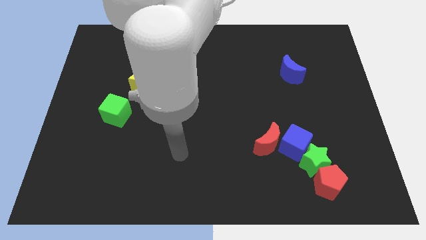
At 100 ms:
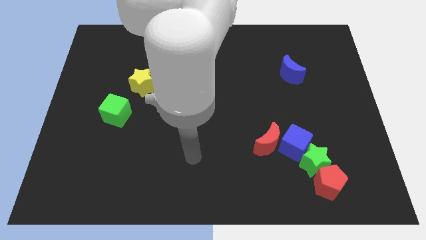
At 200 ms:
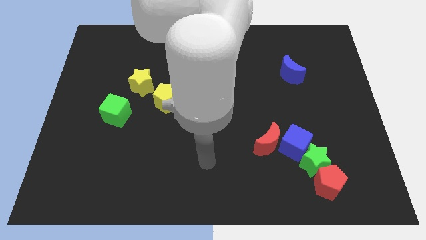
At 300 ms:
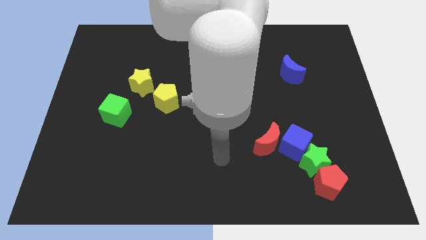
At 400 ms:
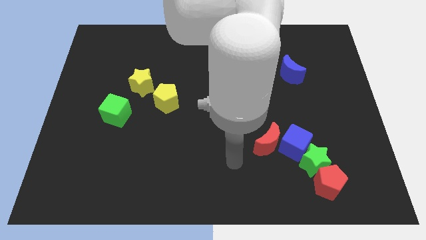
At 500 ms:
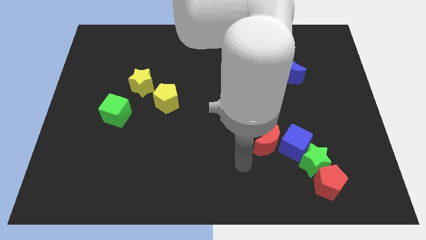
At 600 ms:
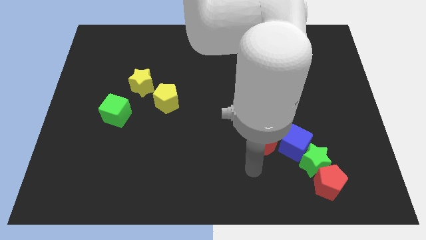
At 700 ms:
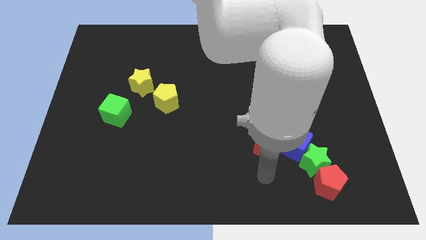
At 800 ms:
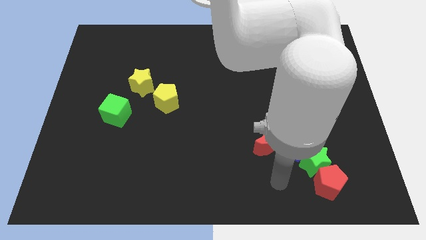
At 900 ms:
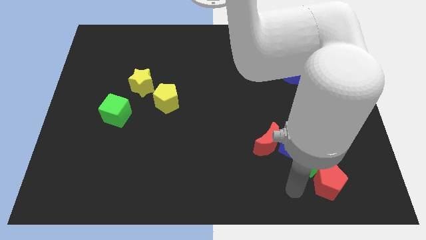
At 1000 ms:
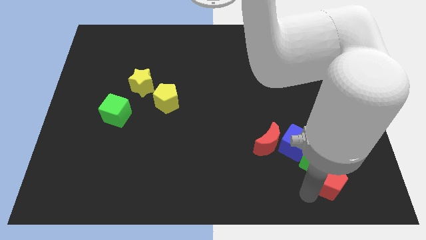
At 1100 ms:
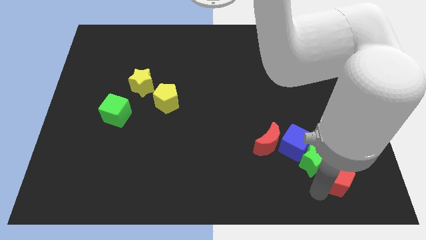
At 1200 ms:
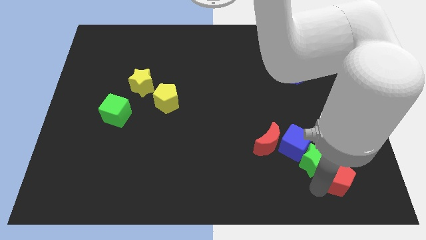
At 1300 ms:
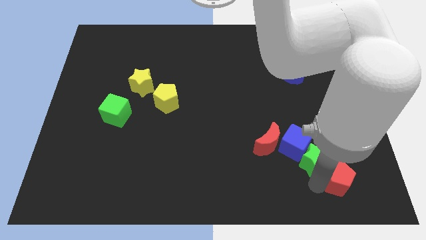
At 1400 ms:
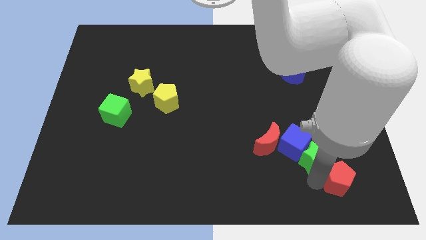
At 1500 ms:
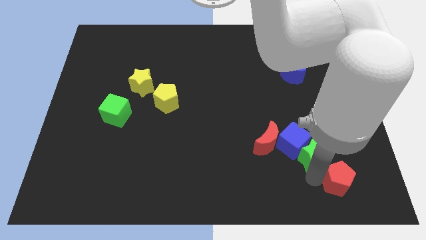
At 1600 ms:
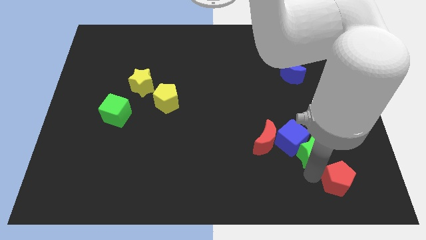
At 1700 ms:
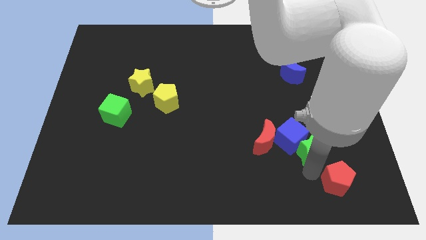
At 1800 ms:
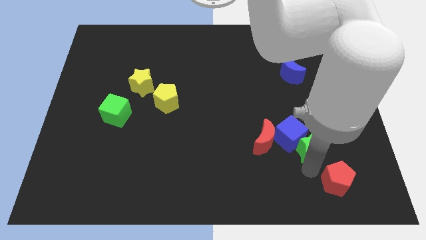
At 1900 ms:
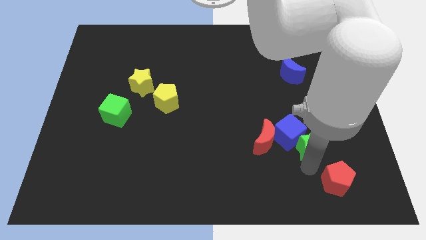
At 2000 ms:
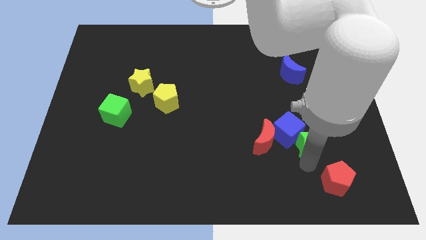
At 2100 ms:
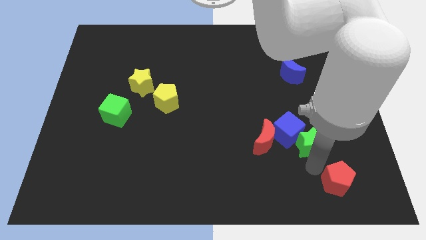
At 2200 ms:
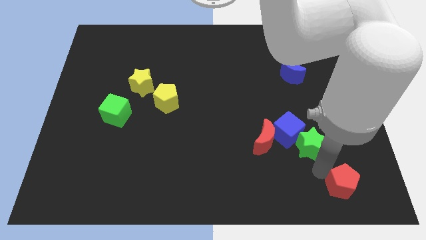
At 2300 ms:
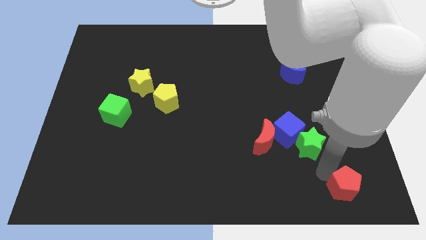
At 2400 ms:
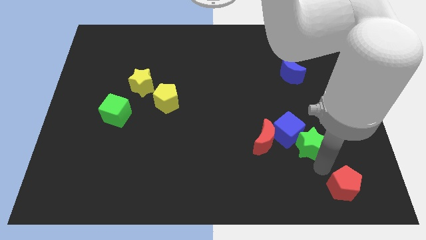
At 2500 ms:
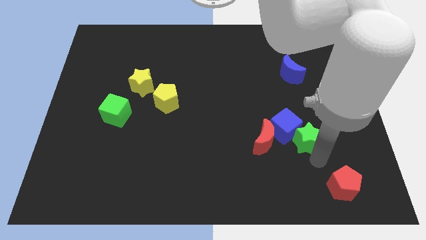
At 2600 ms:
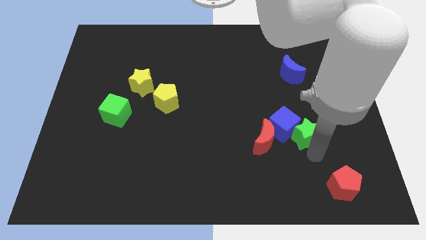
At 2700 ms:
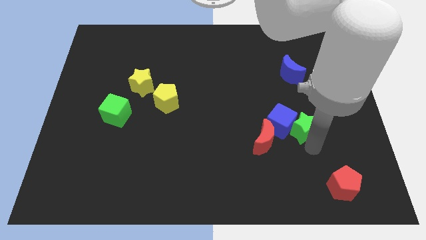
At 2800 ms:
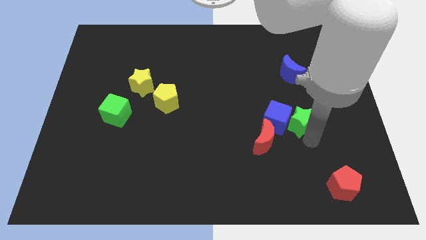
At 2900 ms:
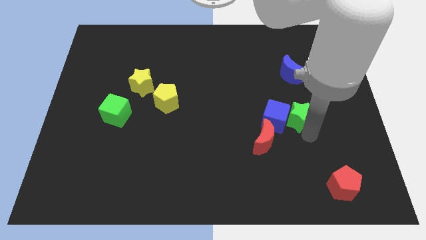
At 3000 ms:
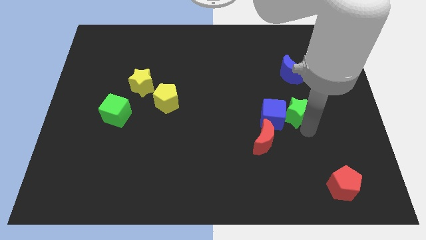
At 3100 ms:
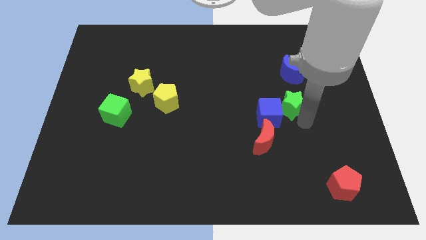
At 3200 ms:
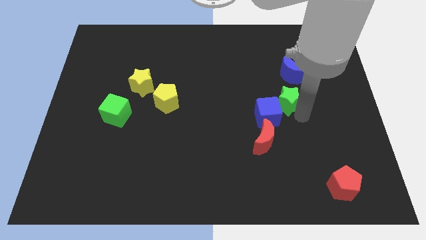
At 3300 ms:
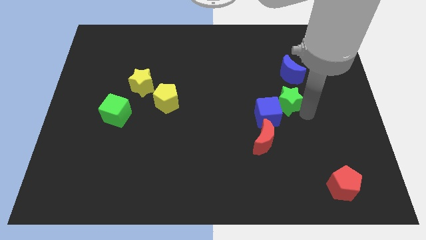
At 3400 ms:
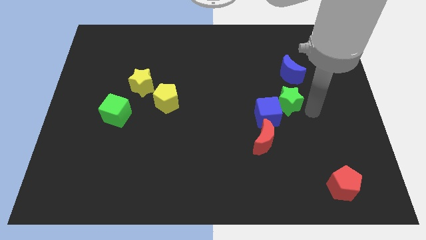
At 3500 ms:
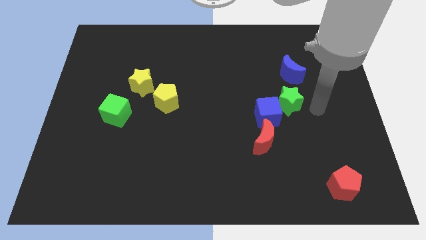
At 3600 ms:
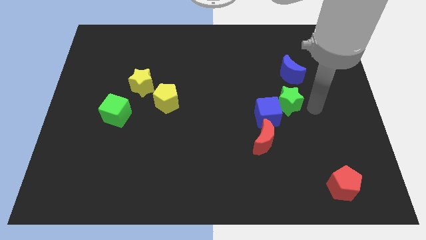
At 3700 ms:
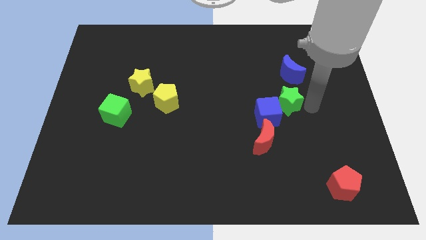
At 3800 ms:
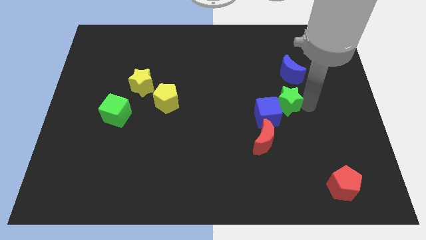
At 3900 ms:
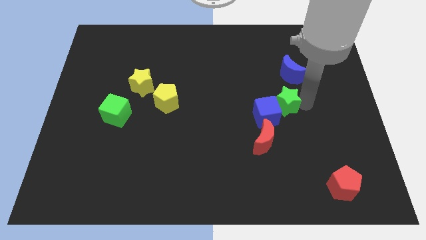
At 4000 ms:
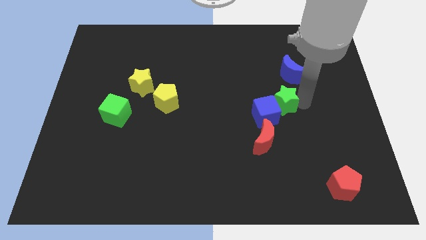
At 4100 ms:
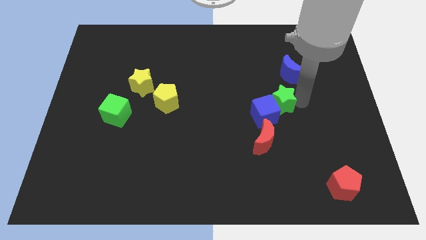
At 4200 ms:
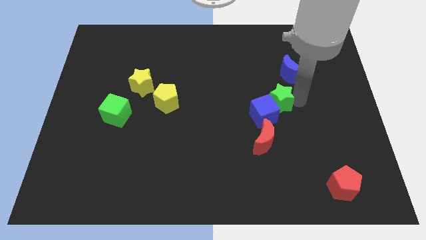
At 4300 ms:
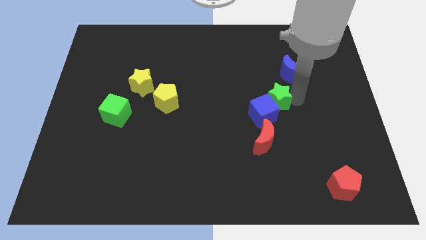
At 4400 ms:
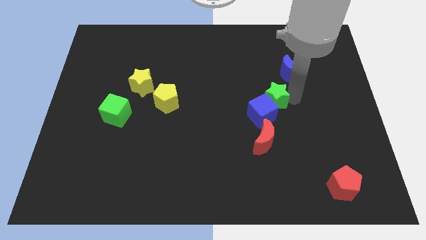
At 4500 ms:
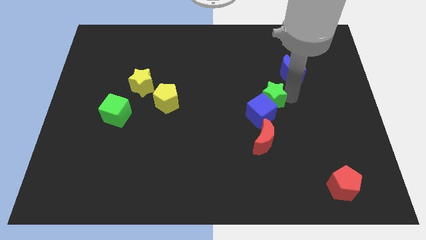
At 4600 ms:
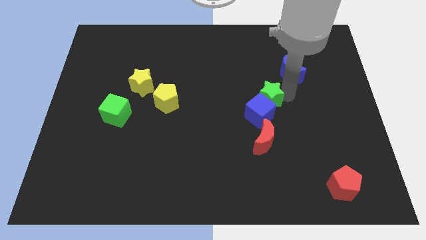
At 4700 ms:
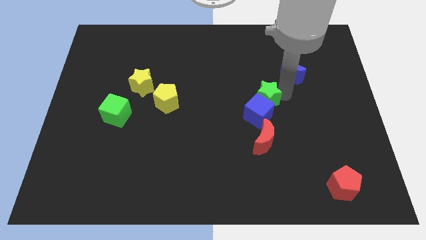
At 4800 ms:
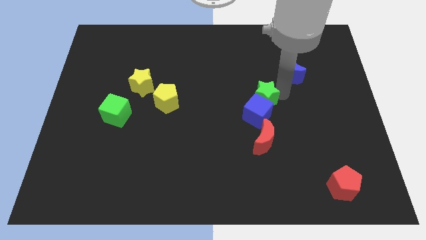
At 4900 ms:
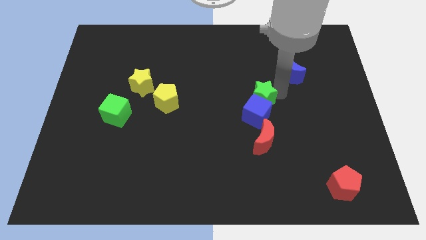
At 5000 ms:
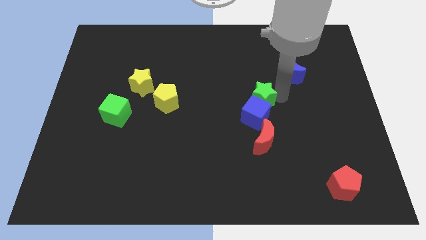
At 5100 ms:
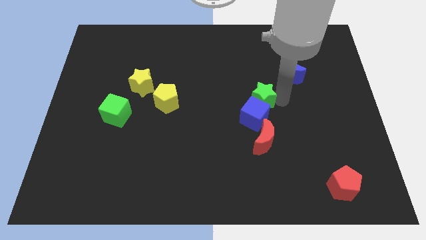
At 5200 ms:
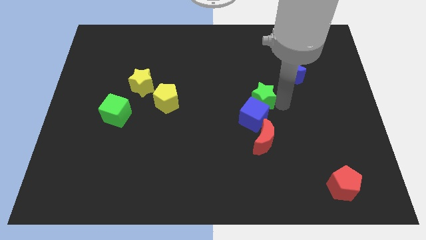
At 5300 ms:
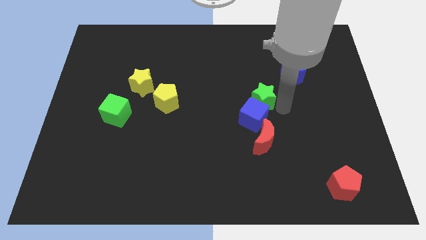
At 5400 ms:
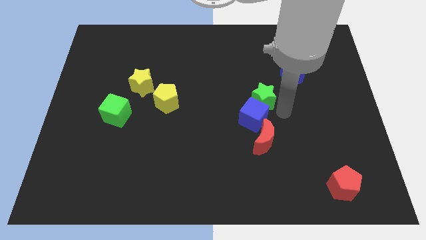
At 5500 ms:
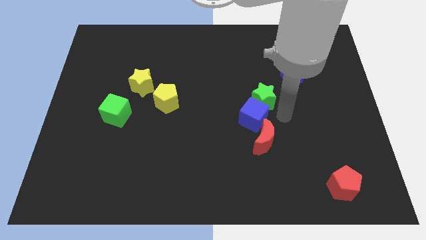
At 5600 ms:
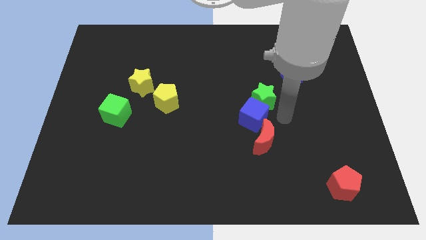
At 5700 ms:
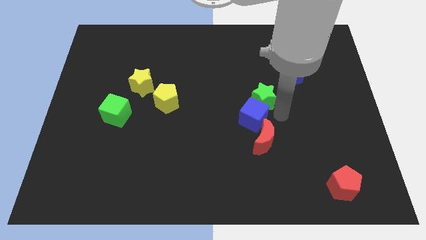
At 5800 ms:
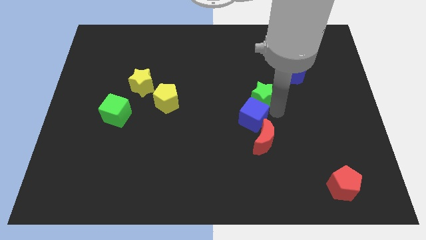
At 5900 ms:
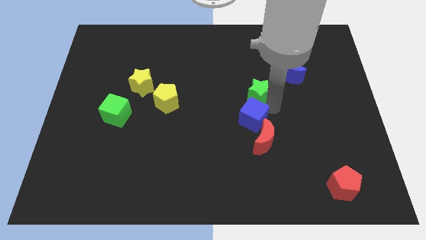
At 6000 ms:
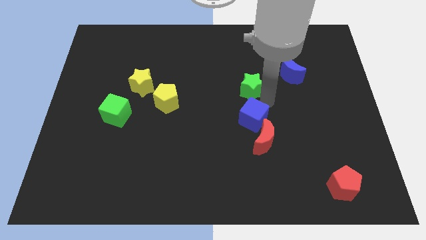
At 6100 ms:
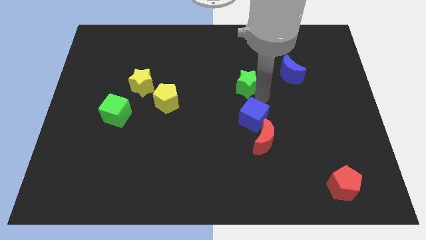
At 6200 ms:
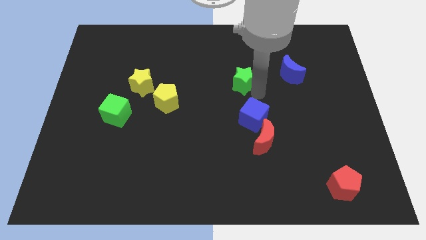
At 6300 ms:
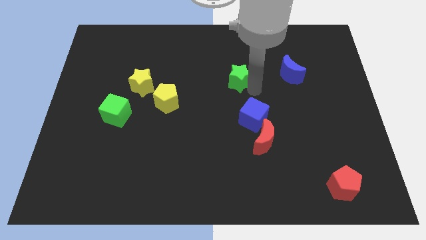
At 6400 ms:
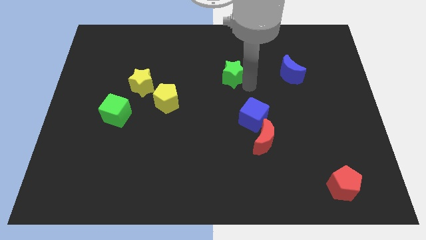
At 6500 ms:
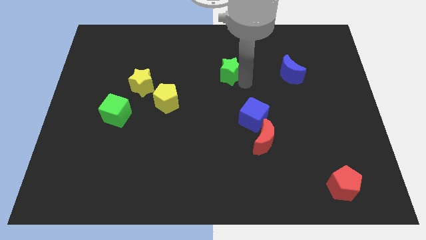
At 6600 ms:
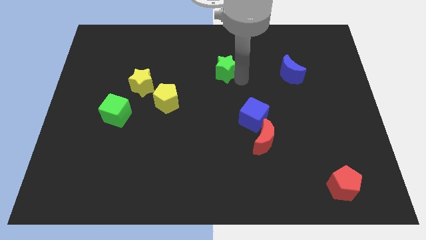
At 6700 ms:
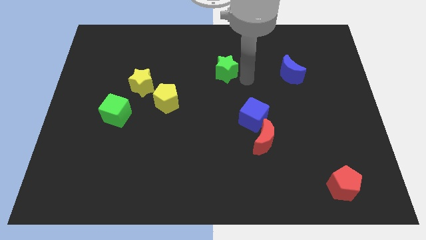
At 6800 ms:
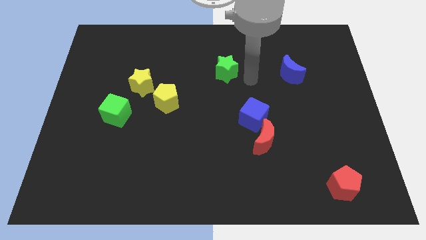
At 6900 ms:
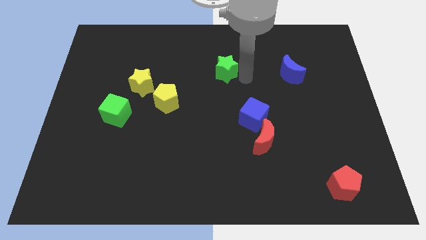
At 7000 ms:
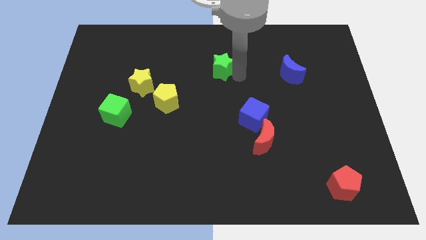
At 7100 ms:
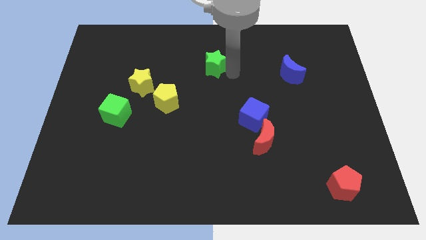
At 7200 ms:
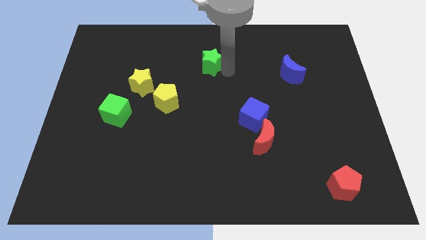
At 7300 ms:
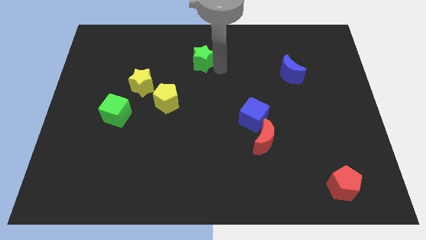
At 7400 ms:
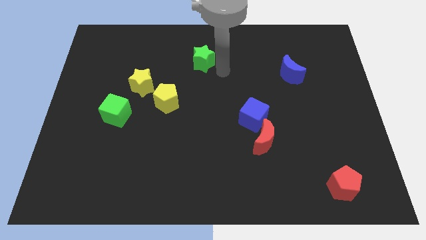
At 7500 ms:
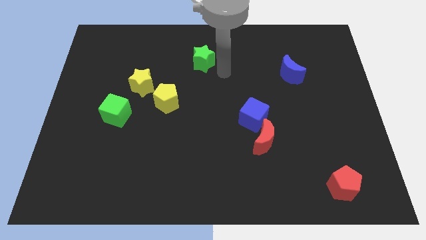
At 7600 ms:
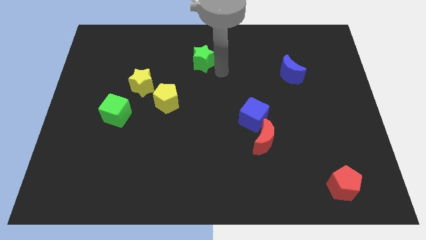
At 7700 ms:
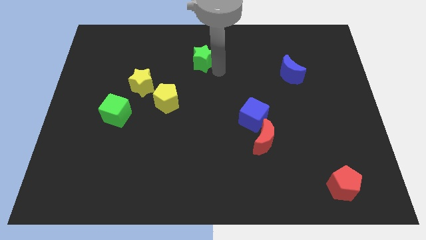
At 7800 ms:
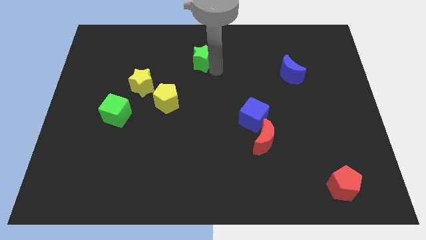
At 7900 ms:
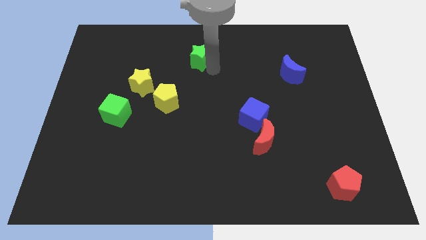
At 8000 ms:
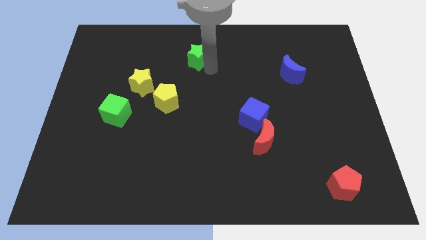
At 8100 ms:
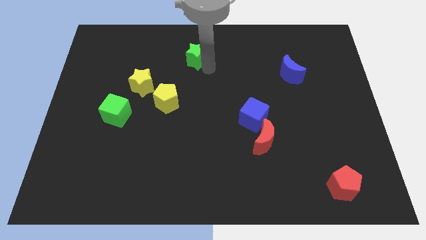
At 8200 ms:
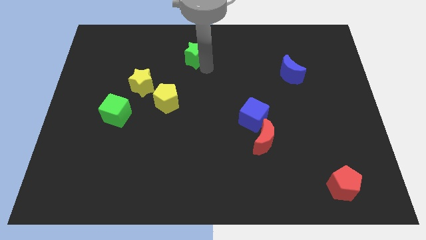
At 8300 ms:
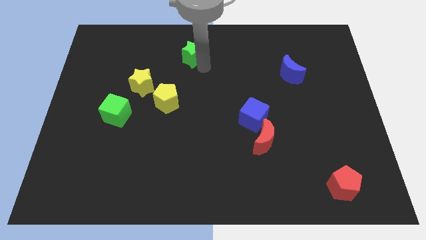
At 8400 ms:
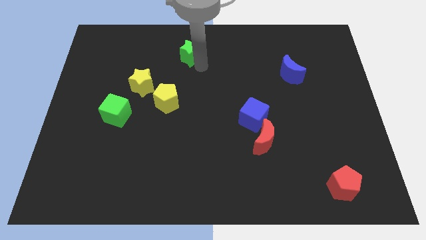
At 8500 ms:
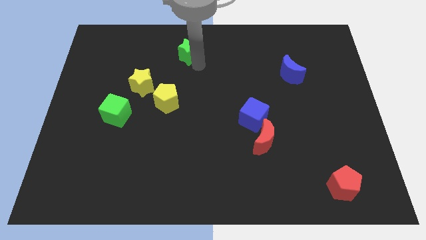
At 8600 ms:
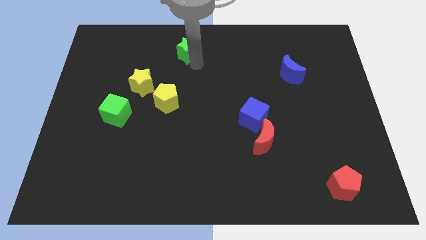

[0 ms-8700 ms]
push the green star to the towards your base
